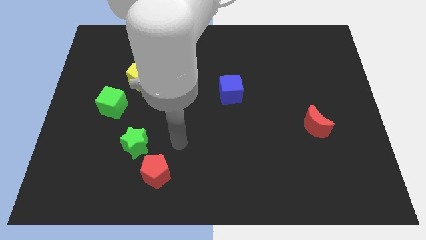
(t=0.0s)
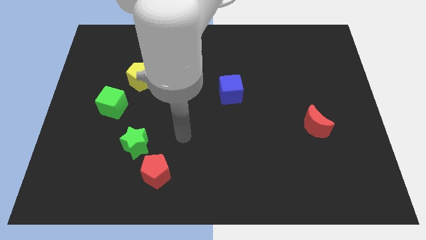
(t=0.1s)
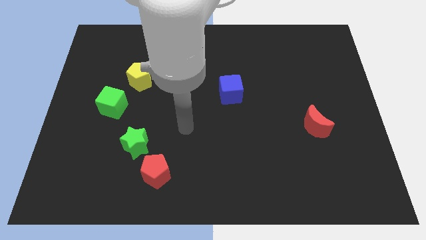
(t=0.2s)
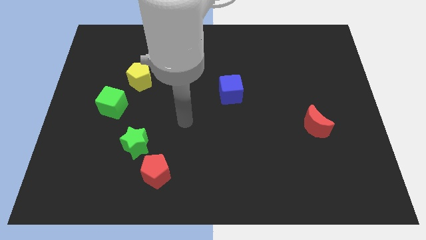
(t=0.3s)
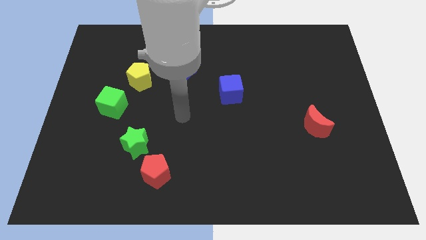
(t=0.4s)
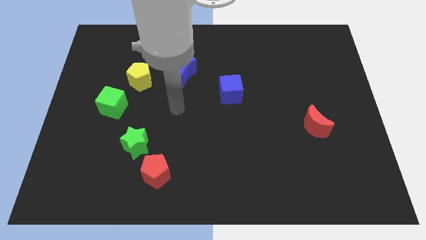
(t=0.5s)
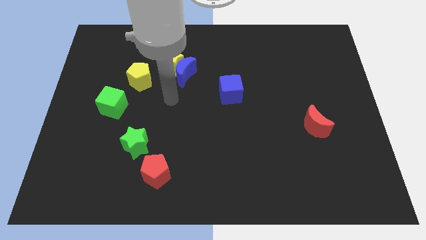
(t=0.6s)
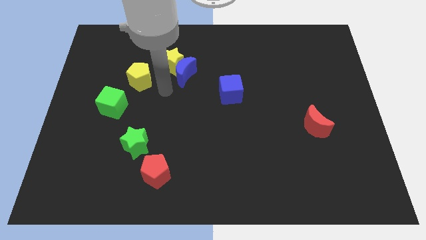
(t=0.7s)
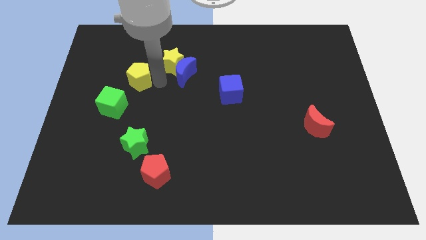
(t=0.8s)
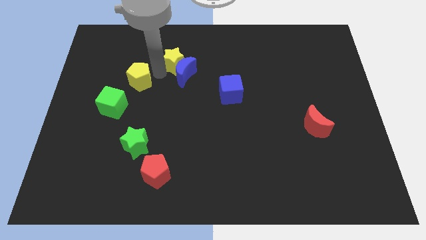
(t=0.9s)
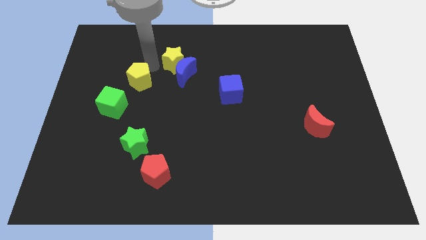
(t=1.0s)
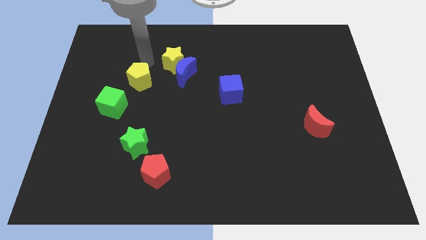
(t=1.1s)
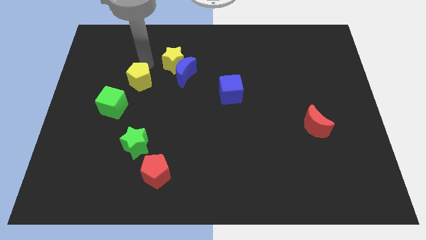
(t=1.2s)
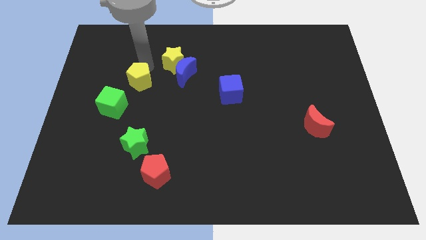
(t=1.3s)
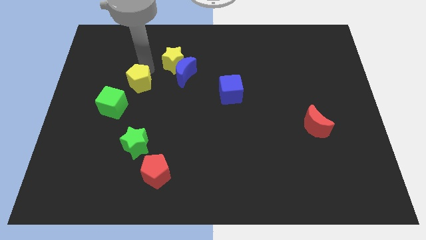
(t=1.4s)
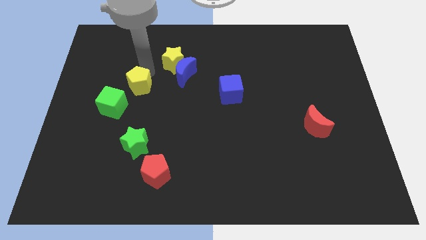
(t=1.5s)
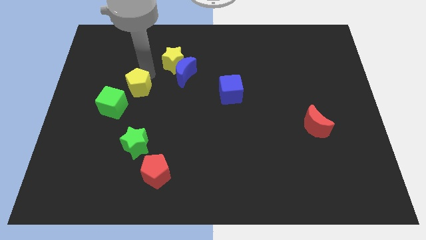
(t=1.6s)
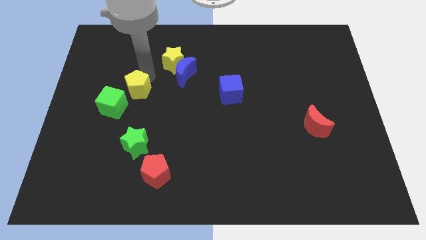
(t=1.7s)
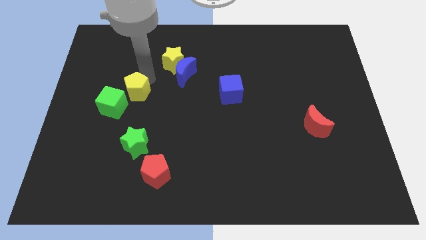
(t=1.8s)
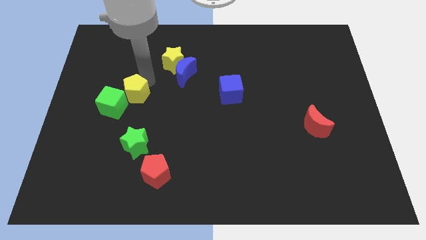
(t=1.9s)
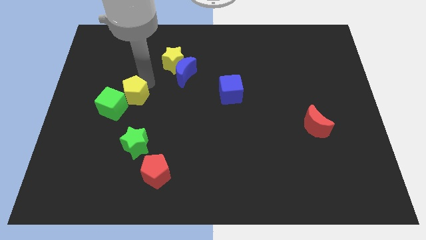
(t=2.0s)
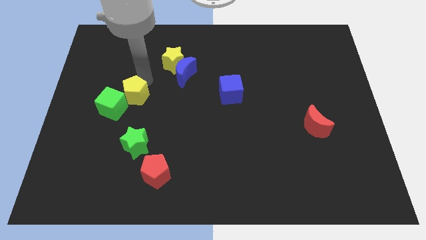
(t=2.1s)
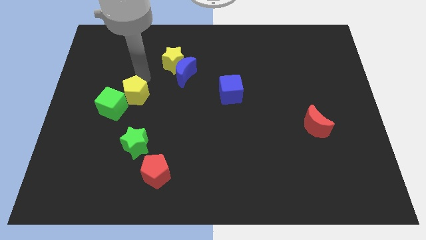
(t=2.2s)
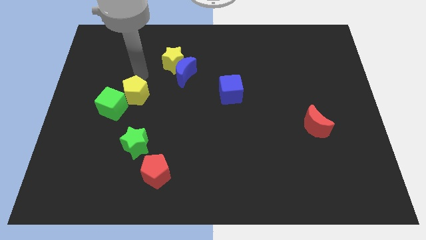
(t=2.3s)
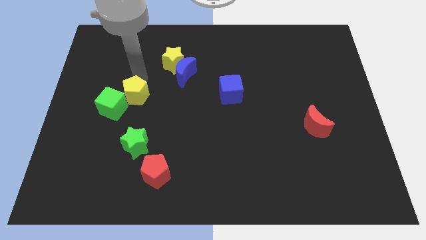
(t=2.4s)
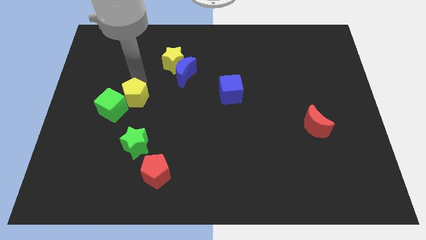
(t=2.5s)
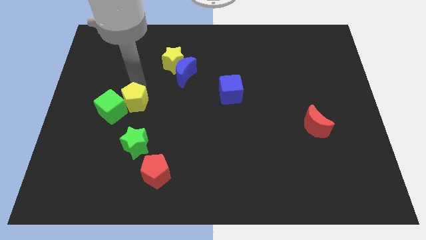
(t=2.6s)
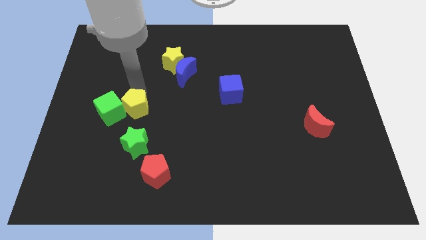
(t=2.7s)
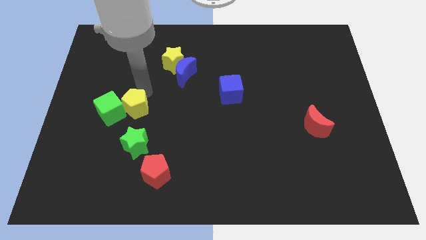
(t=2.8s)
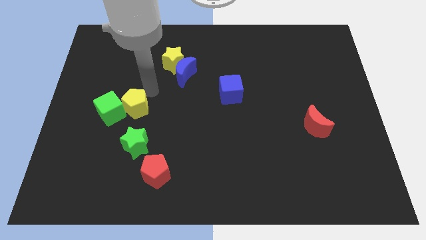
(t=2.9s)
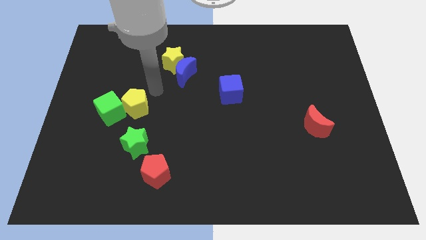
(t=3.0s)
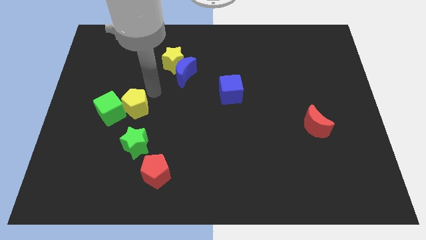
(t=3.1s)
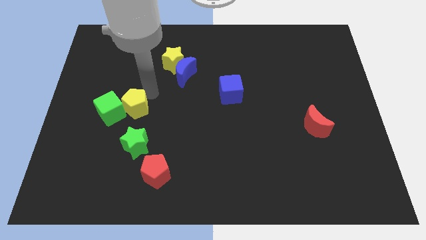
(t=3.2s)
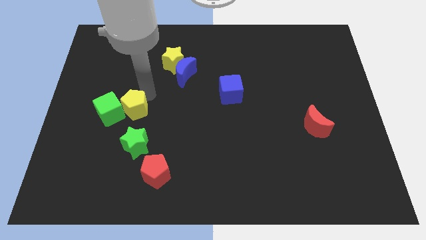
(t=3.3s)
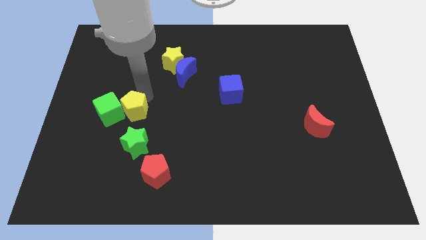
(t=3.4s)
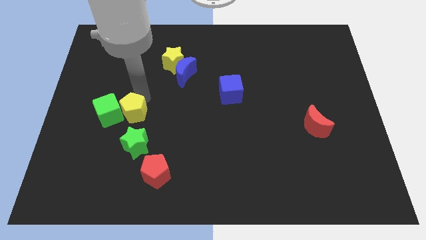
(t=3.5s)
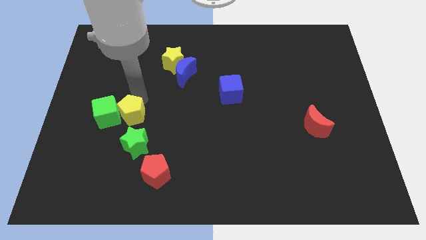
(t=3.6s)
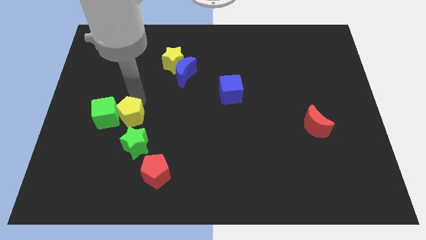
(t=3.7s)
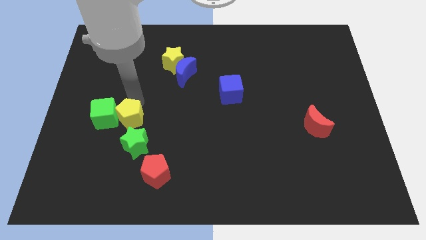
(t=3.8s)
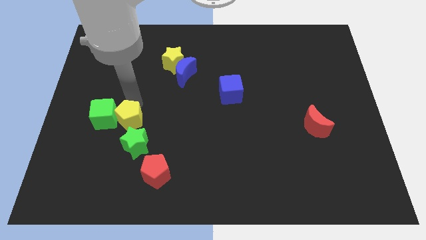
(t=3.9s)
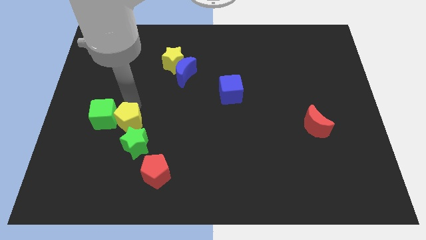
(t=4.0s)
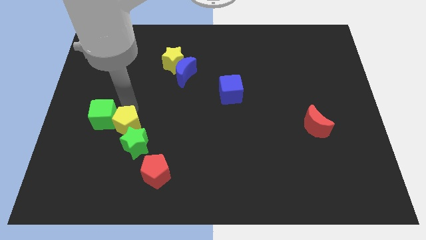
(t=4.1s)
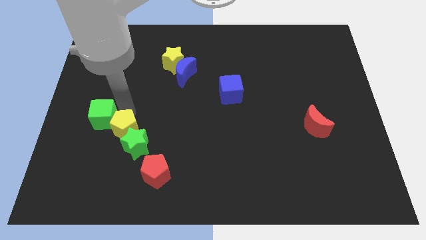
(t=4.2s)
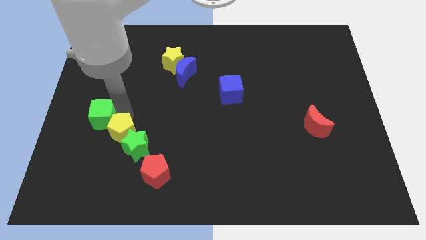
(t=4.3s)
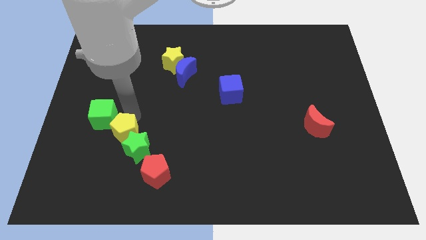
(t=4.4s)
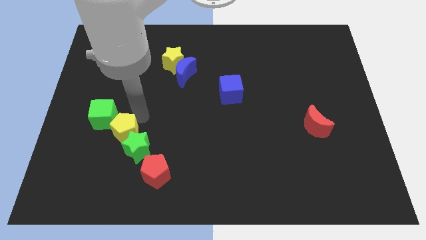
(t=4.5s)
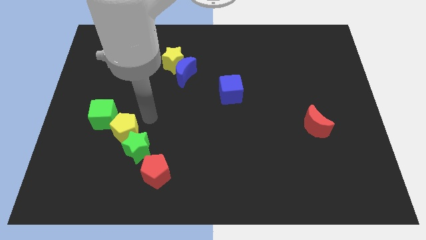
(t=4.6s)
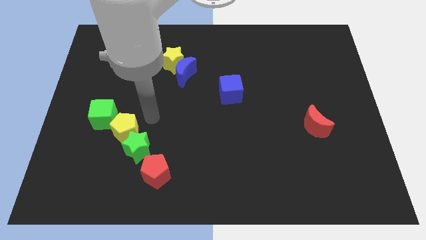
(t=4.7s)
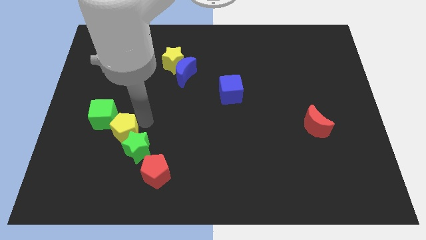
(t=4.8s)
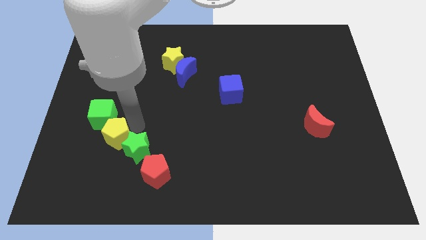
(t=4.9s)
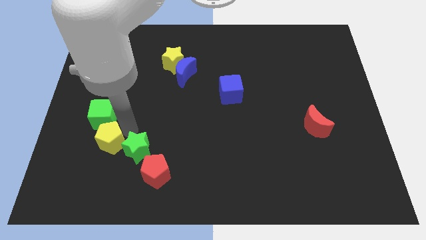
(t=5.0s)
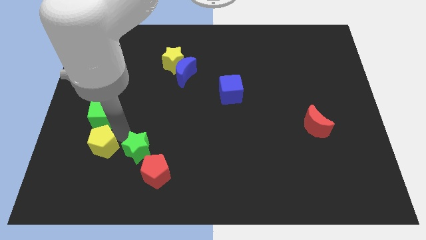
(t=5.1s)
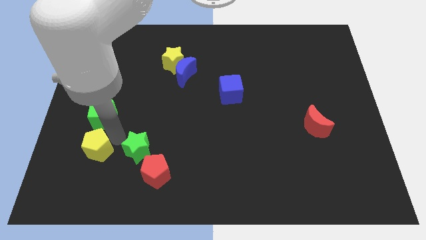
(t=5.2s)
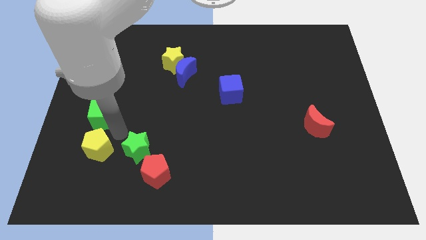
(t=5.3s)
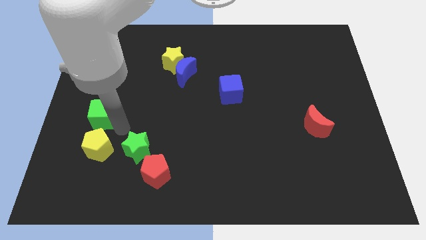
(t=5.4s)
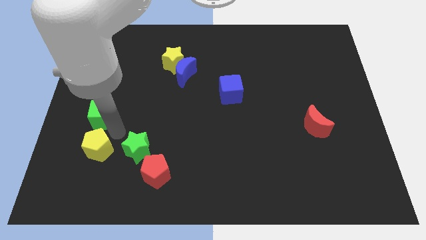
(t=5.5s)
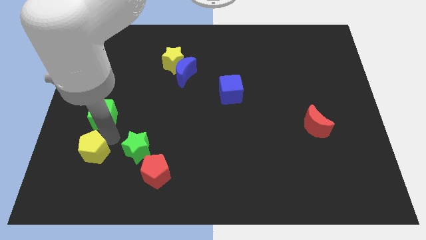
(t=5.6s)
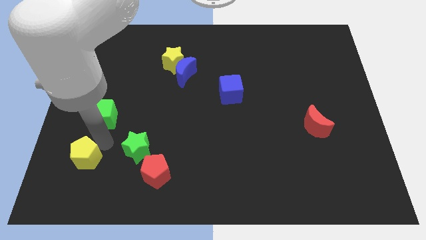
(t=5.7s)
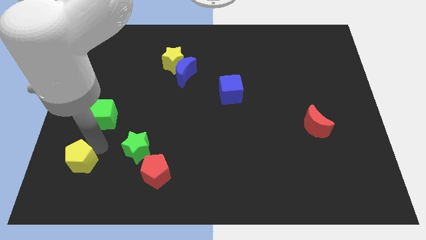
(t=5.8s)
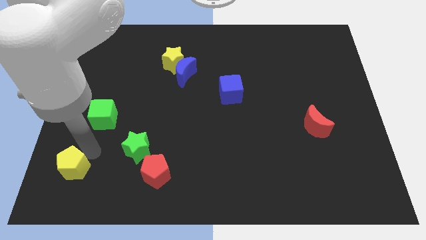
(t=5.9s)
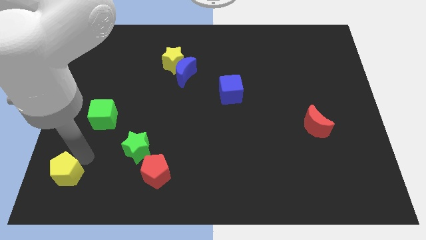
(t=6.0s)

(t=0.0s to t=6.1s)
slide the yellow pentagon to the bottom left of the board
